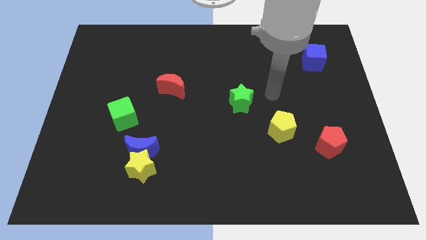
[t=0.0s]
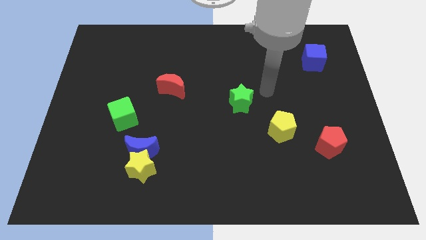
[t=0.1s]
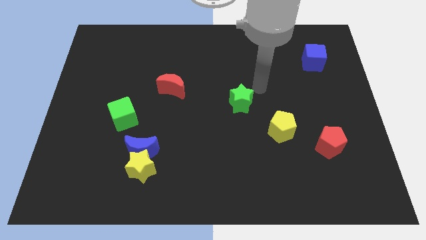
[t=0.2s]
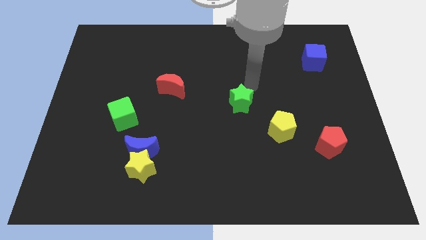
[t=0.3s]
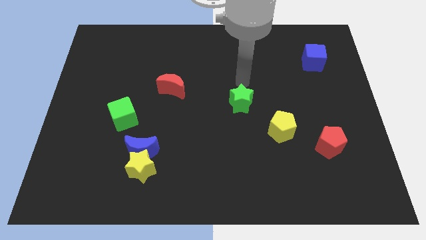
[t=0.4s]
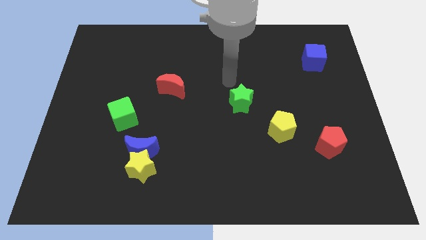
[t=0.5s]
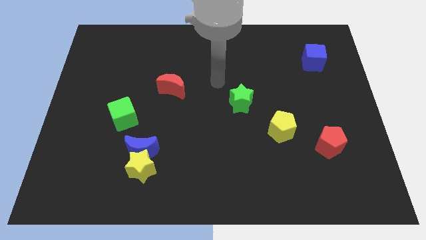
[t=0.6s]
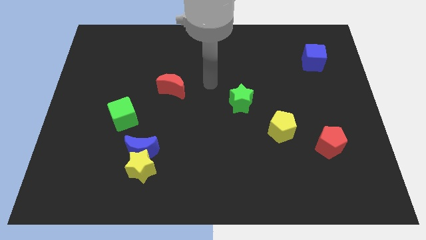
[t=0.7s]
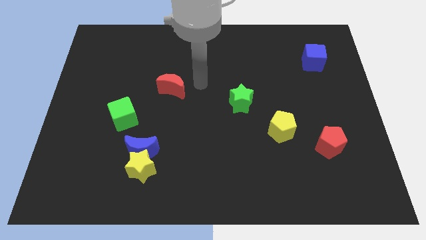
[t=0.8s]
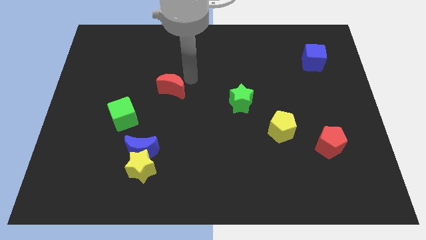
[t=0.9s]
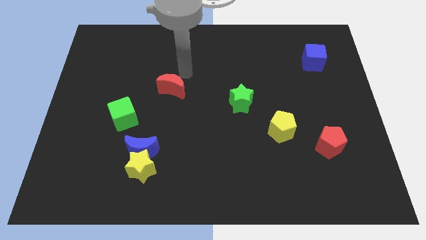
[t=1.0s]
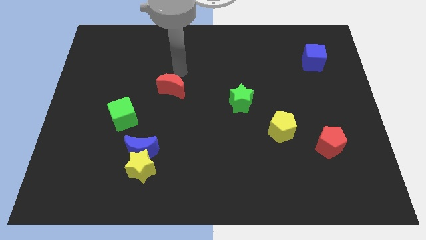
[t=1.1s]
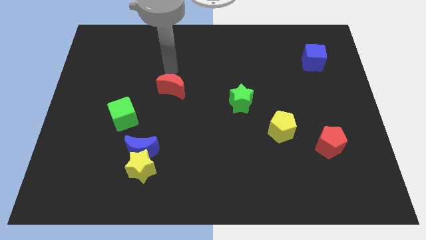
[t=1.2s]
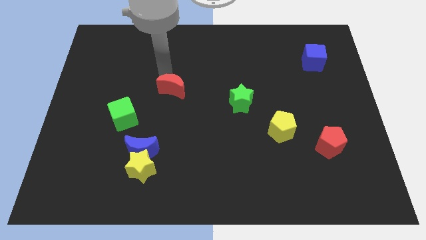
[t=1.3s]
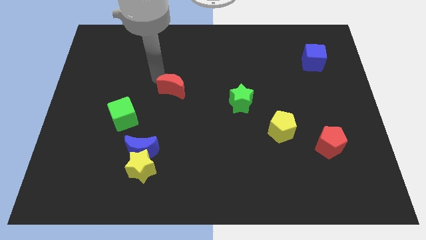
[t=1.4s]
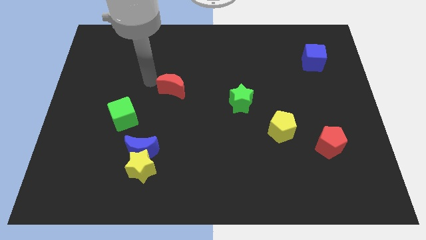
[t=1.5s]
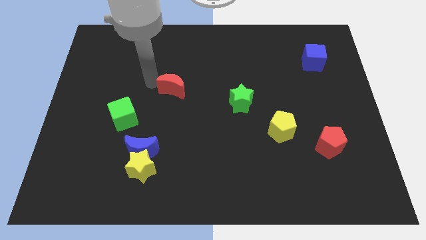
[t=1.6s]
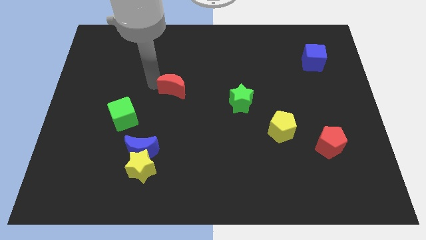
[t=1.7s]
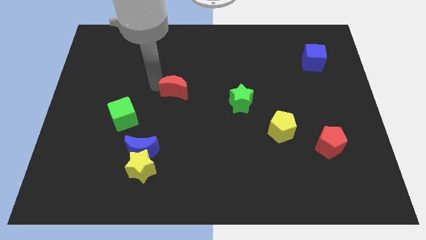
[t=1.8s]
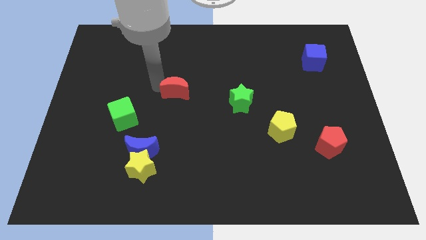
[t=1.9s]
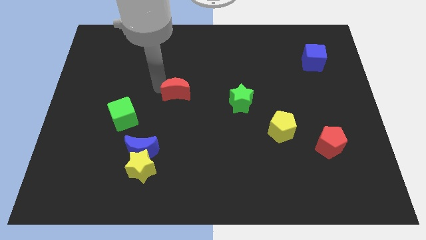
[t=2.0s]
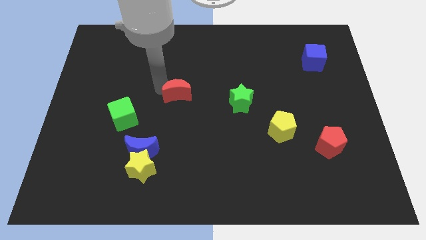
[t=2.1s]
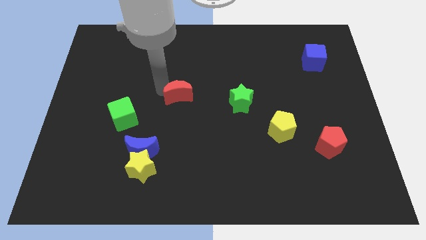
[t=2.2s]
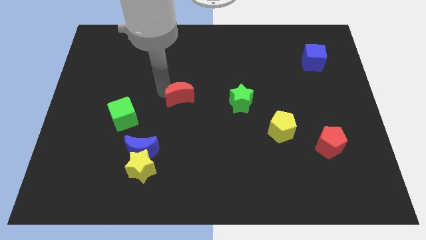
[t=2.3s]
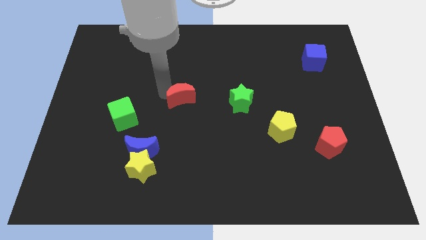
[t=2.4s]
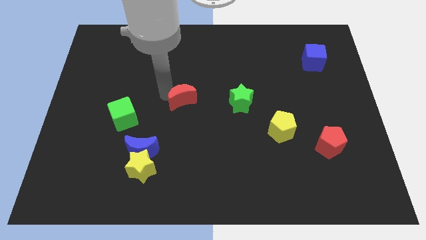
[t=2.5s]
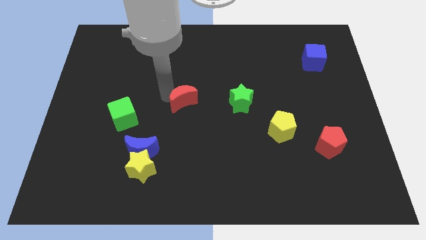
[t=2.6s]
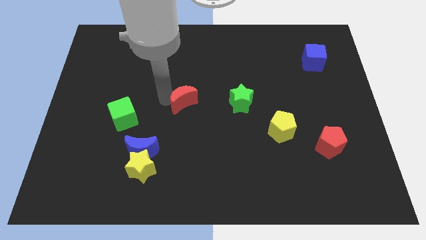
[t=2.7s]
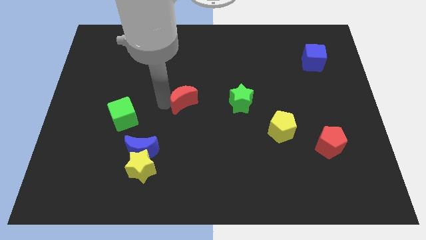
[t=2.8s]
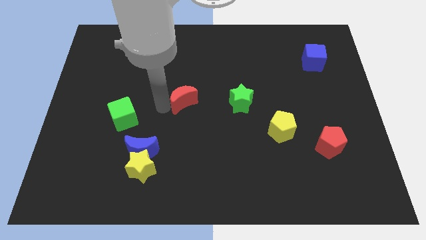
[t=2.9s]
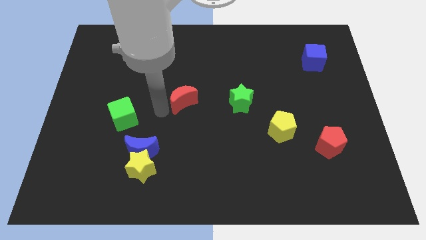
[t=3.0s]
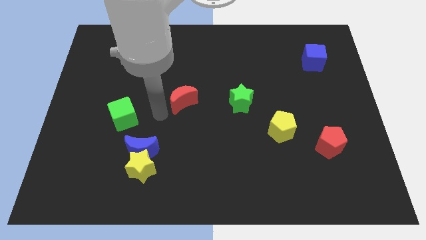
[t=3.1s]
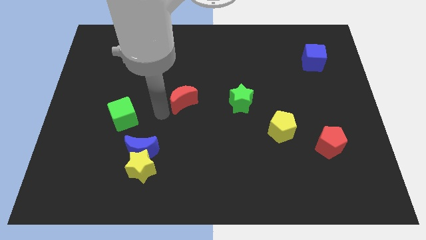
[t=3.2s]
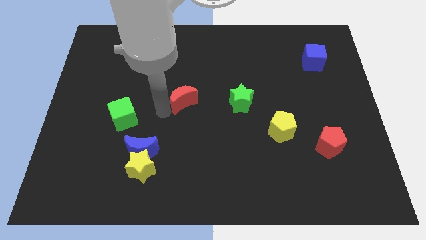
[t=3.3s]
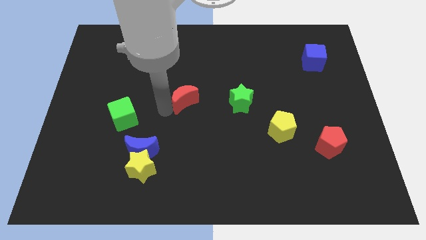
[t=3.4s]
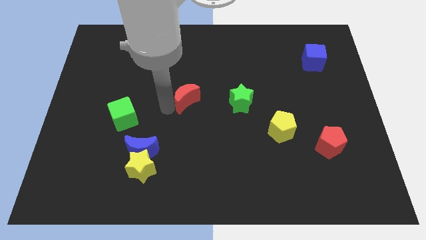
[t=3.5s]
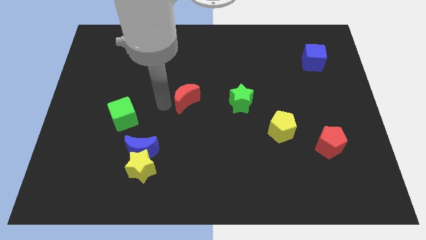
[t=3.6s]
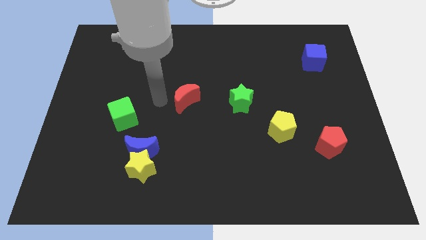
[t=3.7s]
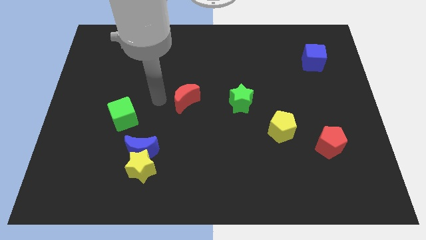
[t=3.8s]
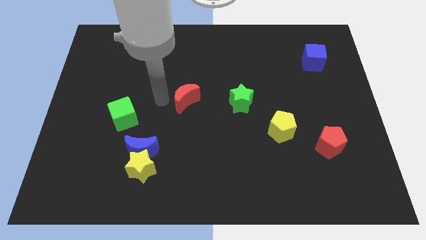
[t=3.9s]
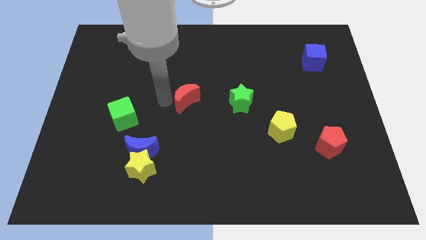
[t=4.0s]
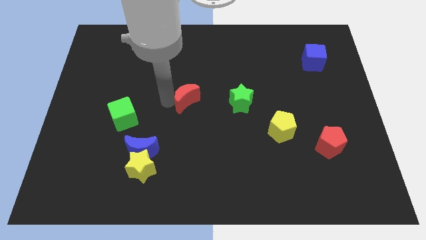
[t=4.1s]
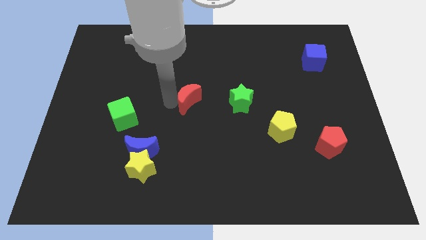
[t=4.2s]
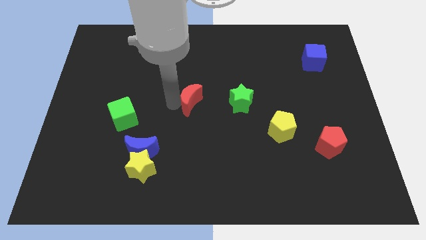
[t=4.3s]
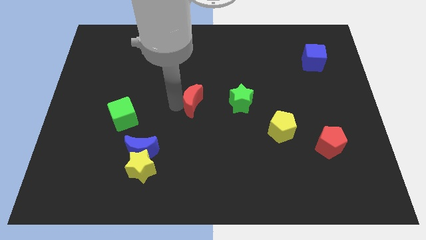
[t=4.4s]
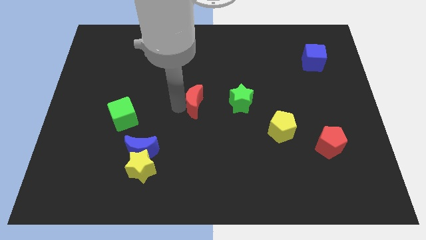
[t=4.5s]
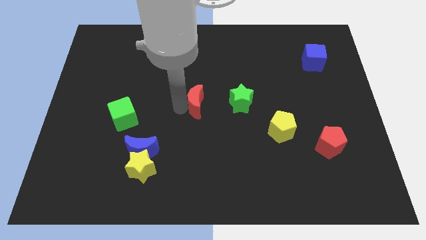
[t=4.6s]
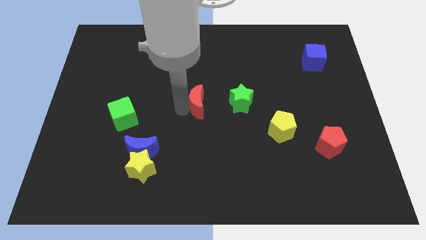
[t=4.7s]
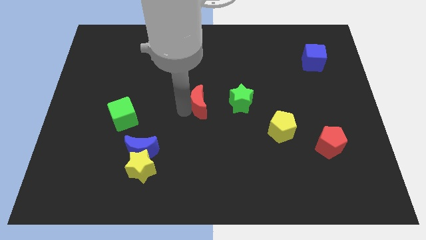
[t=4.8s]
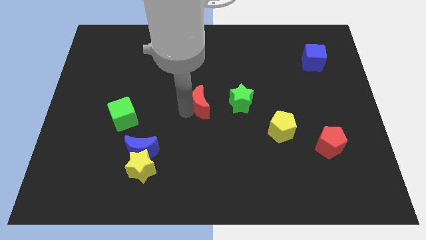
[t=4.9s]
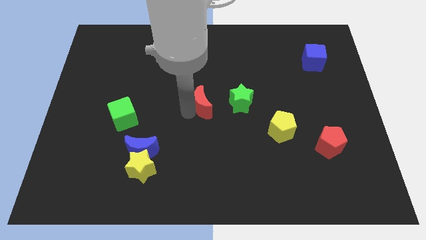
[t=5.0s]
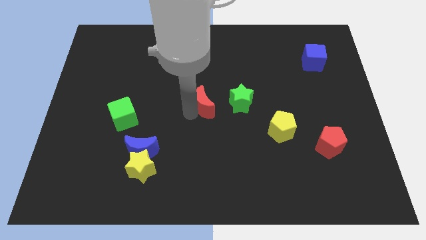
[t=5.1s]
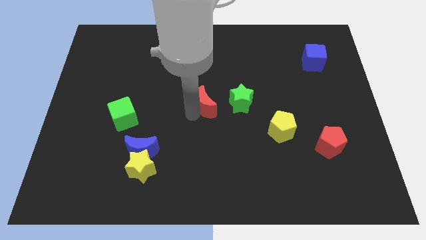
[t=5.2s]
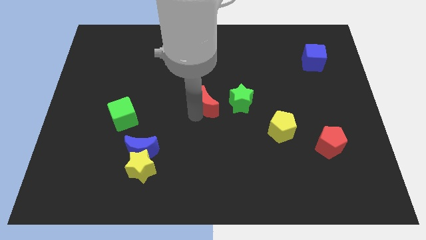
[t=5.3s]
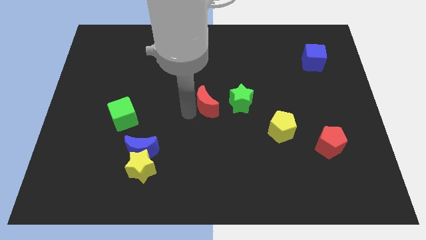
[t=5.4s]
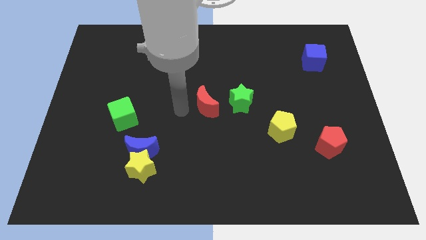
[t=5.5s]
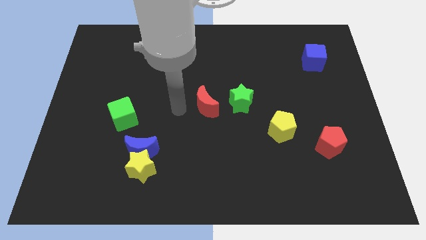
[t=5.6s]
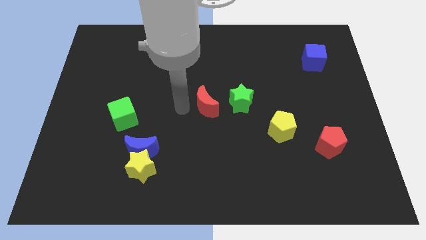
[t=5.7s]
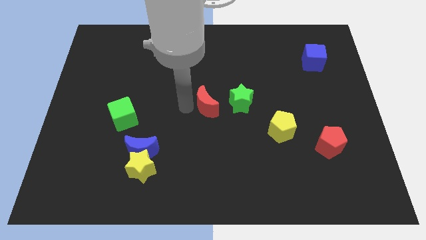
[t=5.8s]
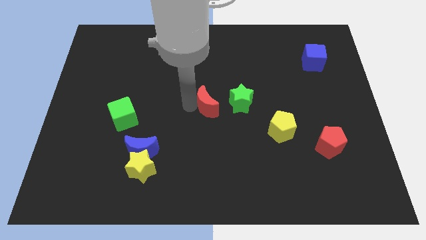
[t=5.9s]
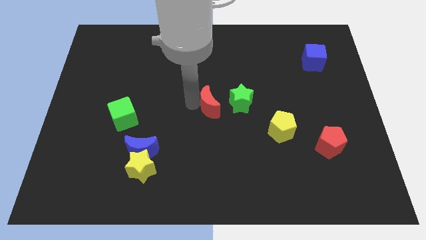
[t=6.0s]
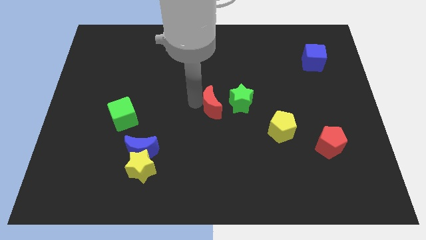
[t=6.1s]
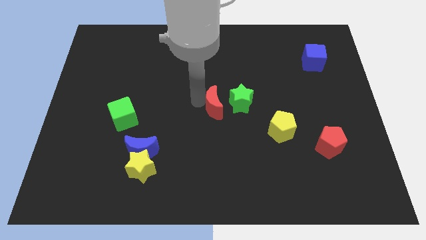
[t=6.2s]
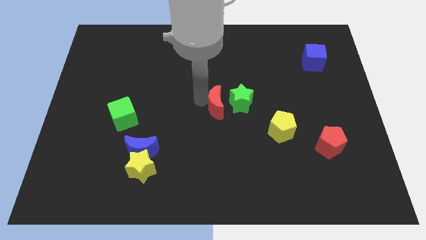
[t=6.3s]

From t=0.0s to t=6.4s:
move the red moon to the green star

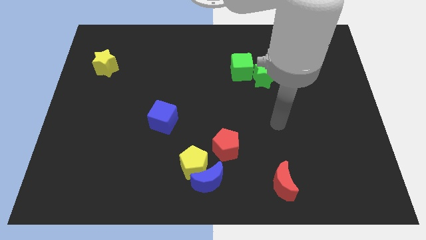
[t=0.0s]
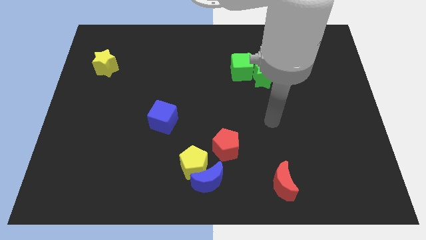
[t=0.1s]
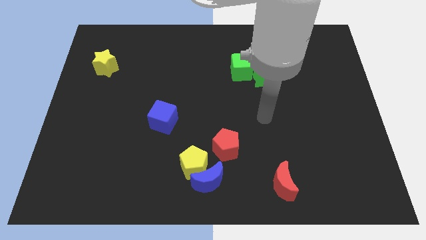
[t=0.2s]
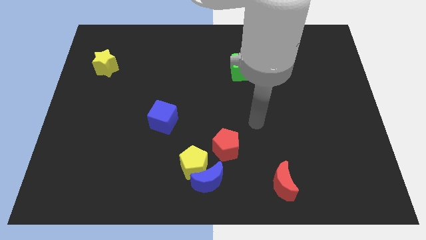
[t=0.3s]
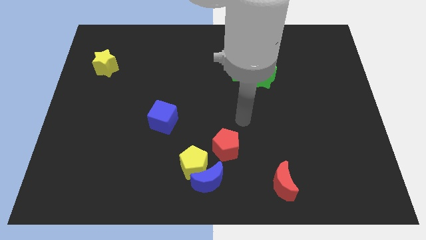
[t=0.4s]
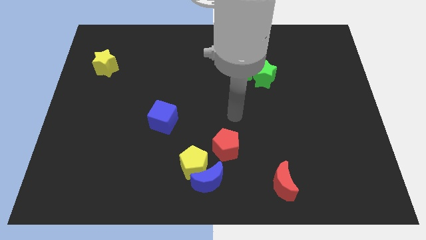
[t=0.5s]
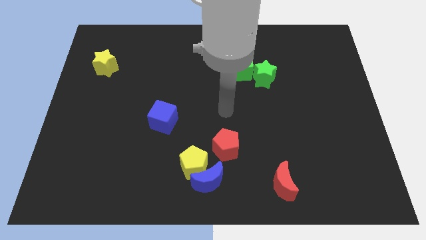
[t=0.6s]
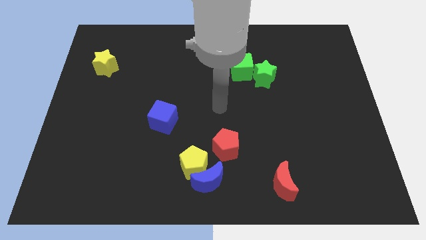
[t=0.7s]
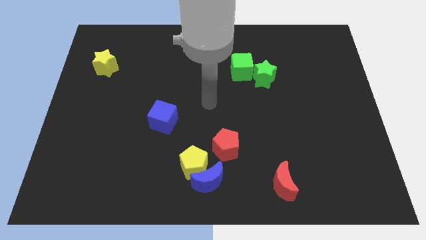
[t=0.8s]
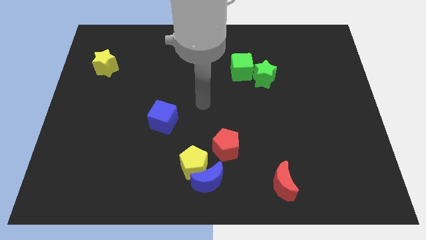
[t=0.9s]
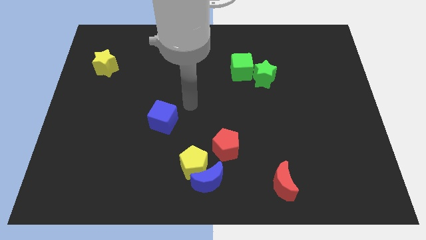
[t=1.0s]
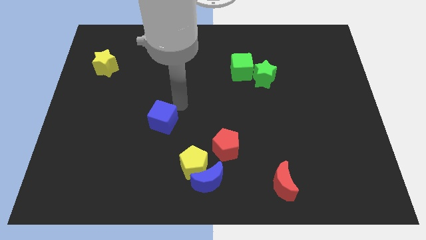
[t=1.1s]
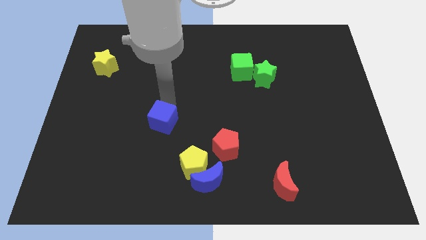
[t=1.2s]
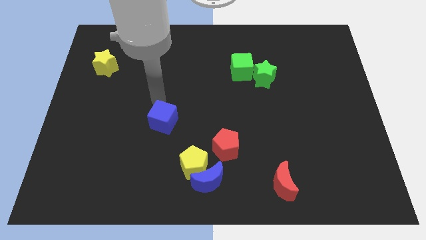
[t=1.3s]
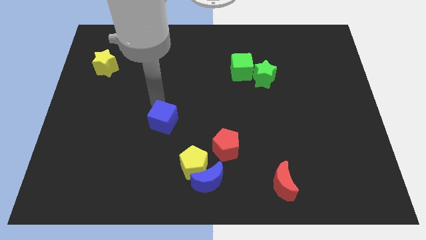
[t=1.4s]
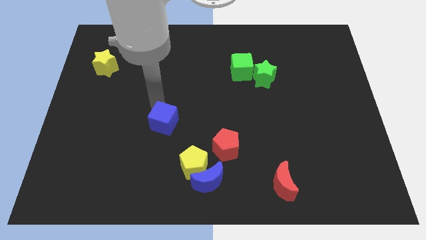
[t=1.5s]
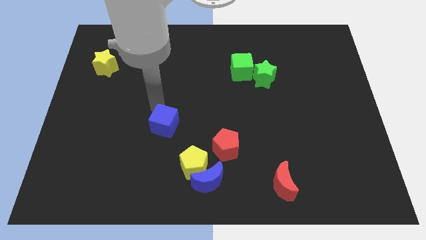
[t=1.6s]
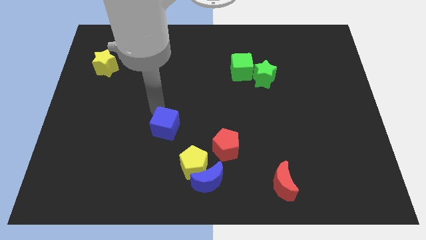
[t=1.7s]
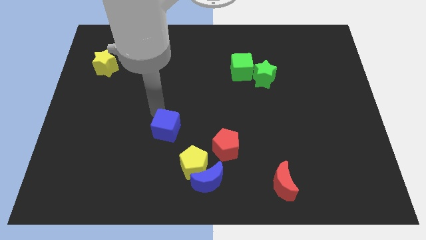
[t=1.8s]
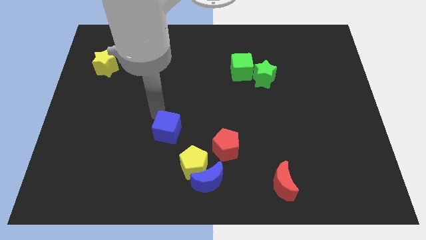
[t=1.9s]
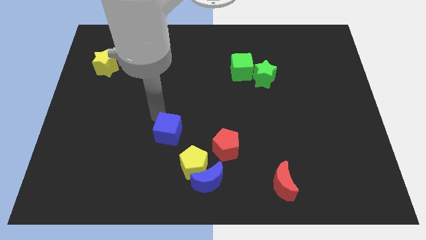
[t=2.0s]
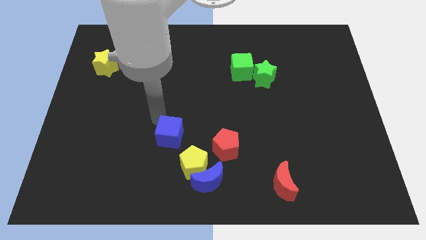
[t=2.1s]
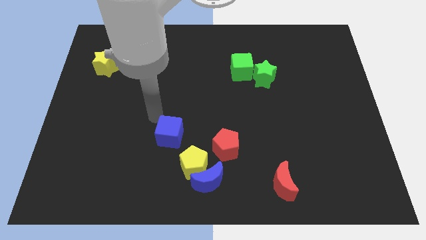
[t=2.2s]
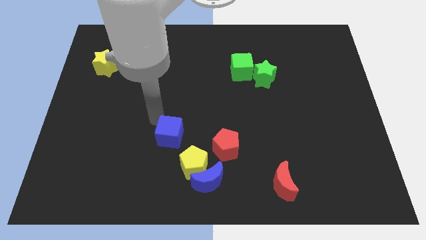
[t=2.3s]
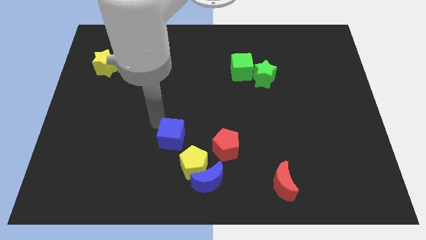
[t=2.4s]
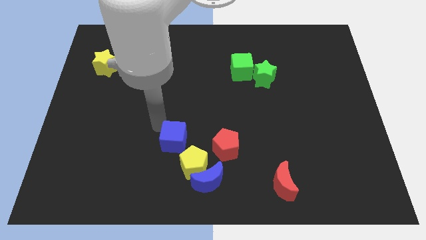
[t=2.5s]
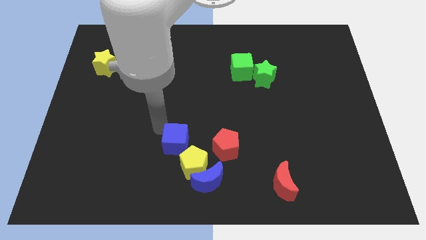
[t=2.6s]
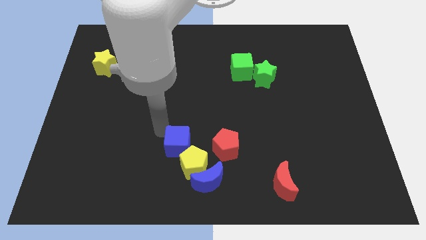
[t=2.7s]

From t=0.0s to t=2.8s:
push the blue cube towards the yellow pentagon
